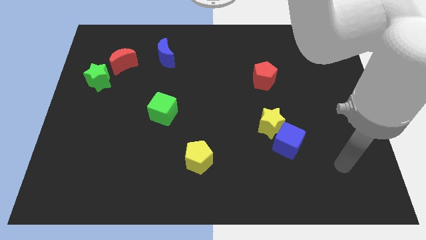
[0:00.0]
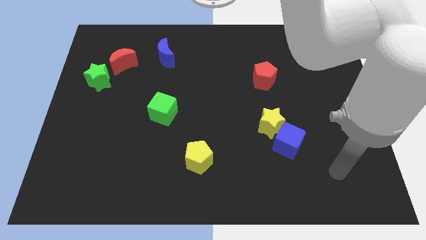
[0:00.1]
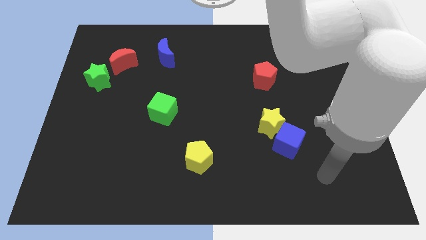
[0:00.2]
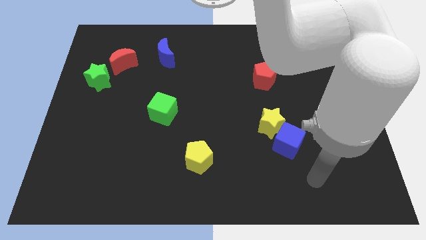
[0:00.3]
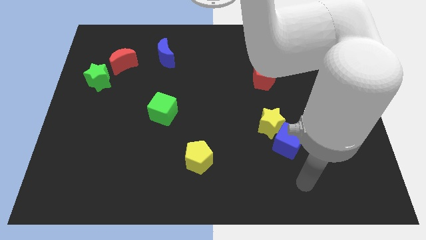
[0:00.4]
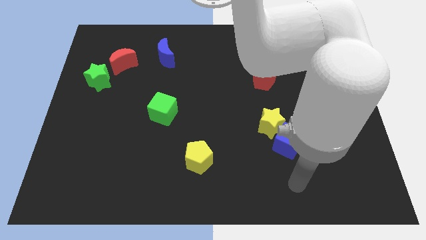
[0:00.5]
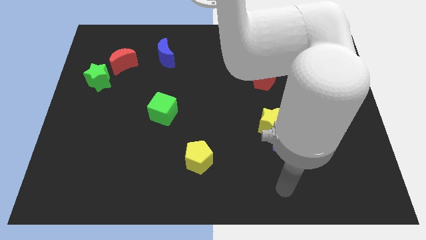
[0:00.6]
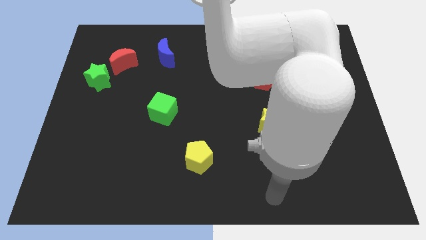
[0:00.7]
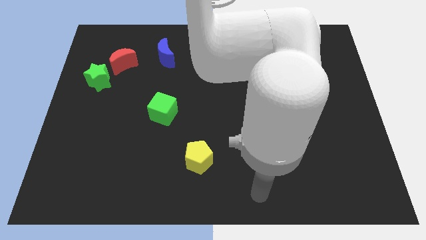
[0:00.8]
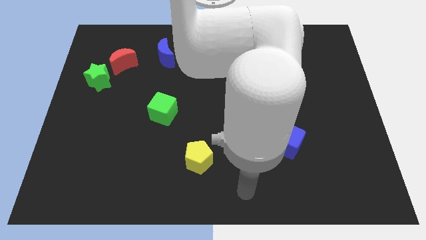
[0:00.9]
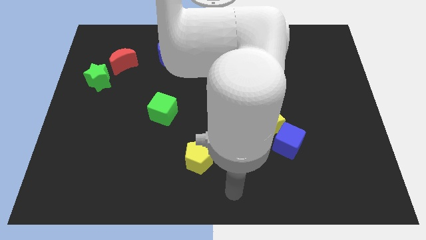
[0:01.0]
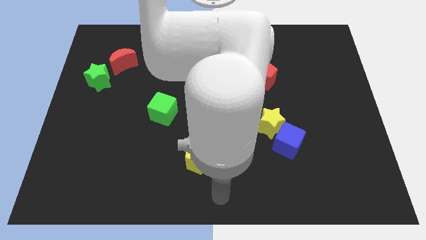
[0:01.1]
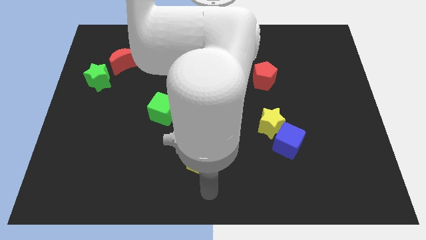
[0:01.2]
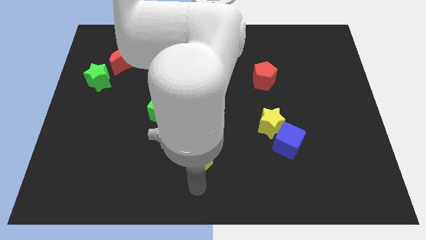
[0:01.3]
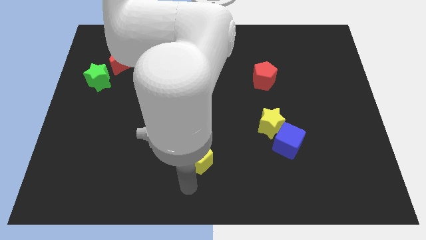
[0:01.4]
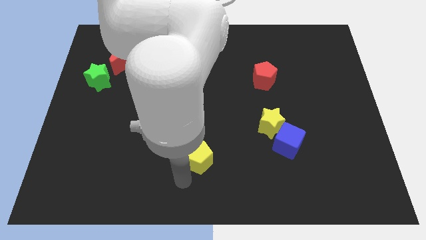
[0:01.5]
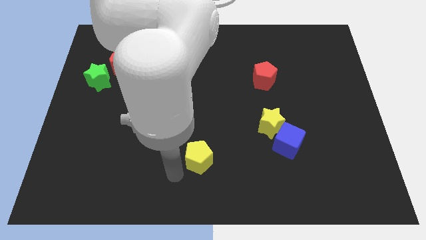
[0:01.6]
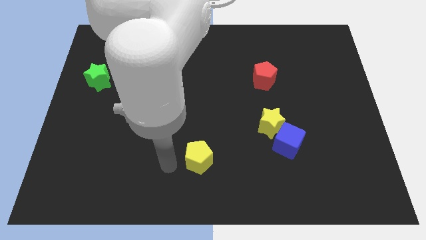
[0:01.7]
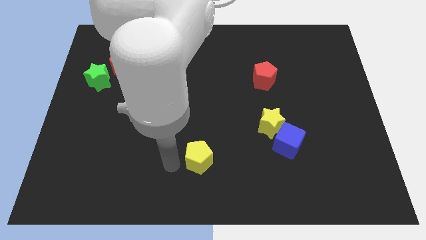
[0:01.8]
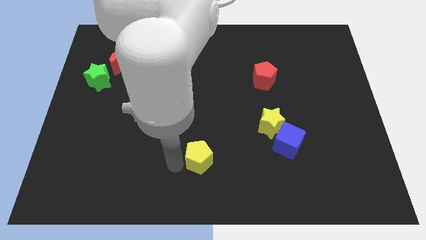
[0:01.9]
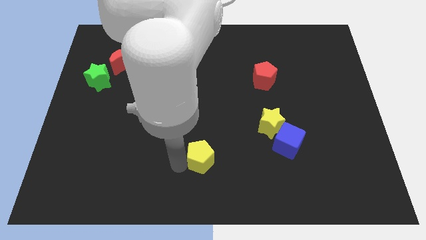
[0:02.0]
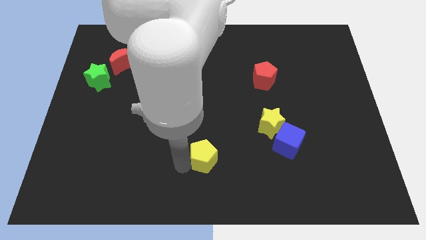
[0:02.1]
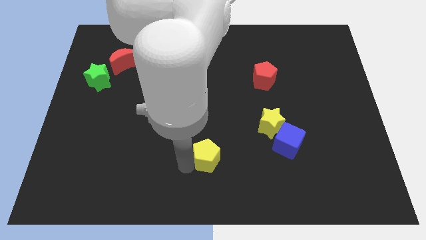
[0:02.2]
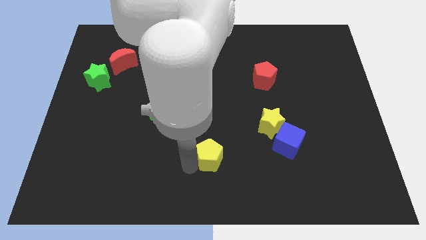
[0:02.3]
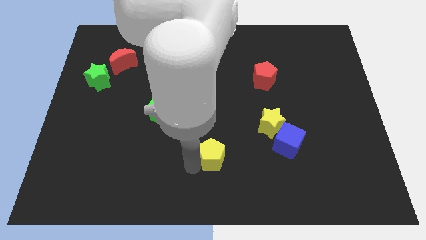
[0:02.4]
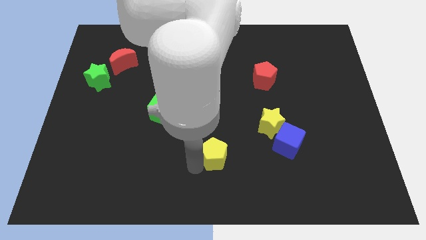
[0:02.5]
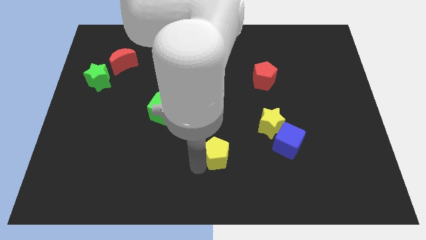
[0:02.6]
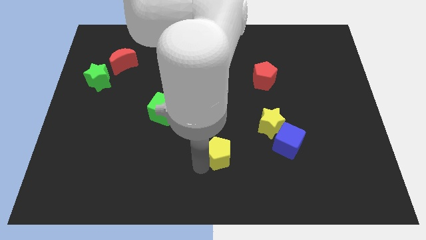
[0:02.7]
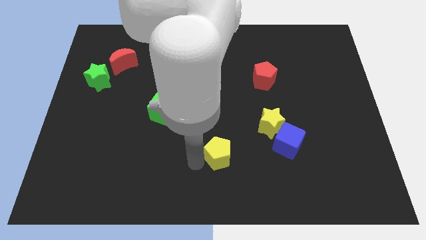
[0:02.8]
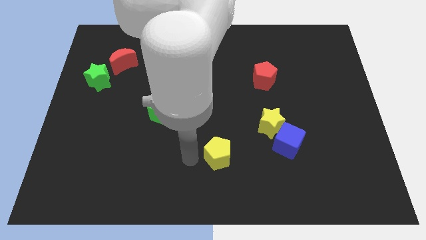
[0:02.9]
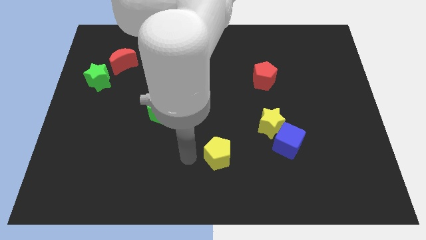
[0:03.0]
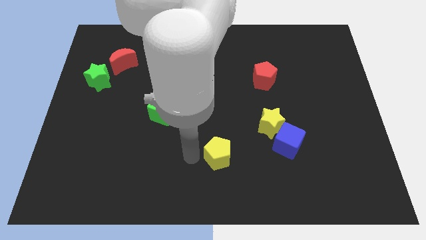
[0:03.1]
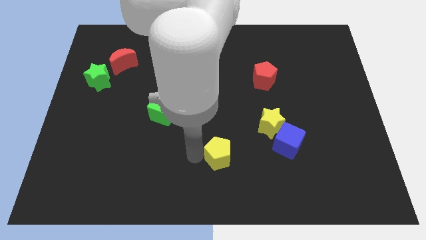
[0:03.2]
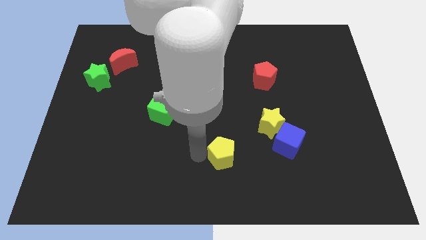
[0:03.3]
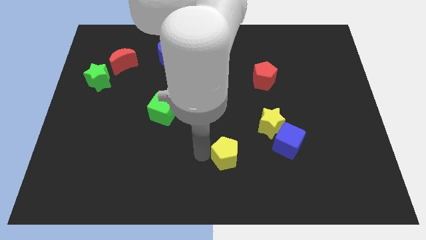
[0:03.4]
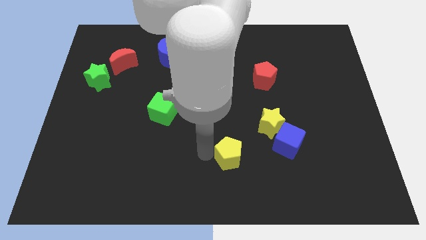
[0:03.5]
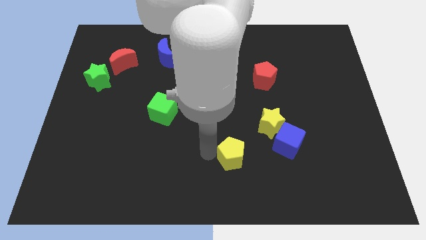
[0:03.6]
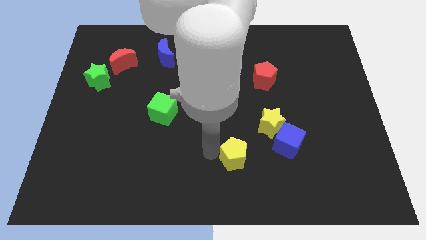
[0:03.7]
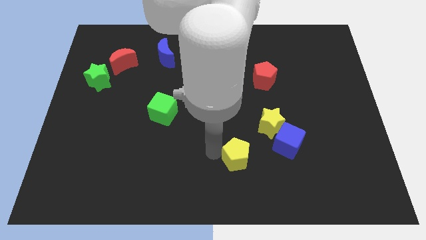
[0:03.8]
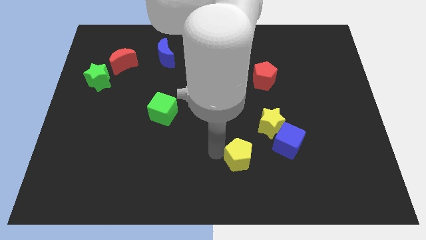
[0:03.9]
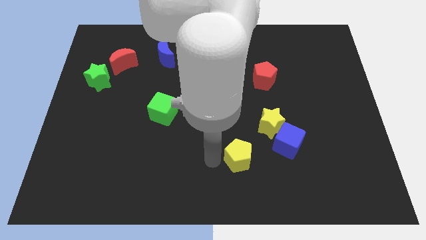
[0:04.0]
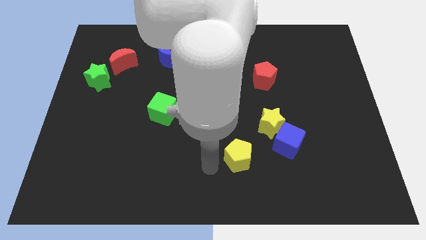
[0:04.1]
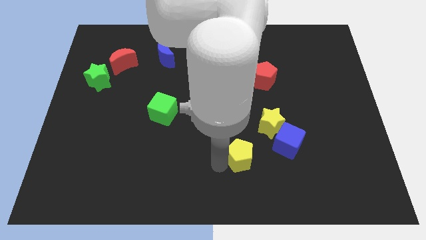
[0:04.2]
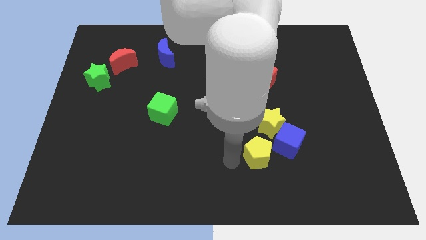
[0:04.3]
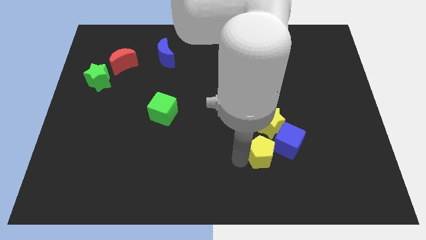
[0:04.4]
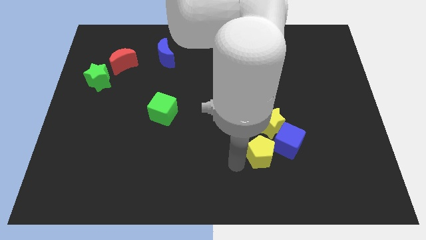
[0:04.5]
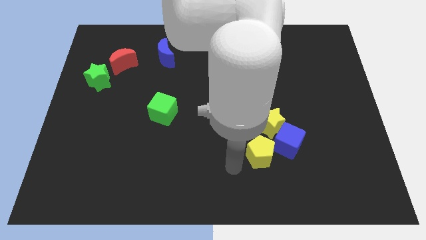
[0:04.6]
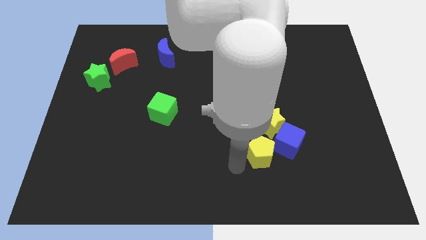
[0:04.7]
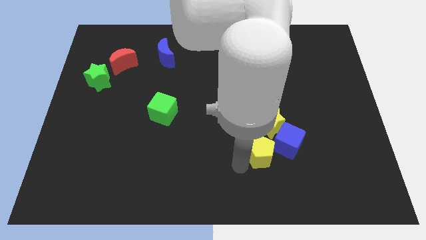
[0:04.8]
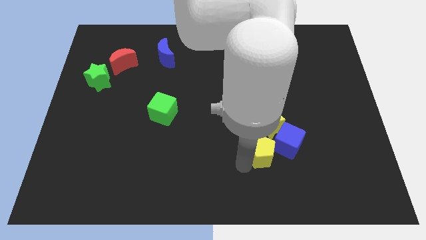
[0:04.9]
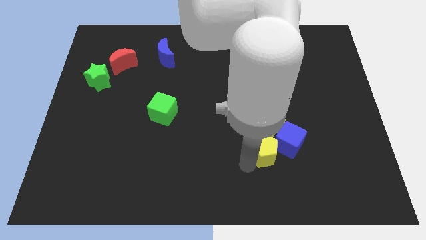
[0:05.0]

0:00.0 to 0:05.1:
move the yellow pentagon to the blue cube

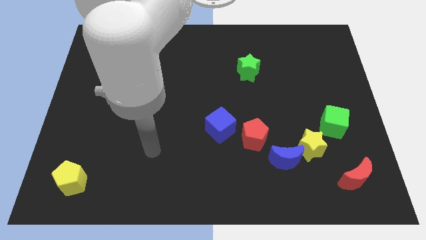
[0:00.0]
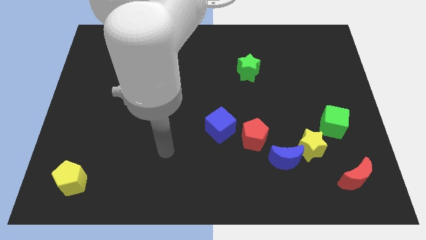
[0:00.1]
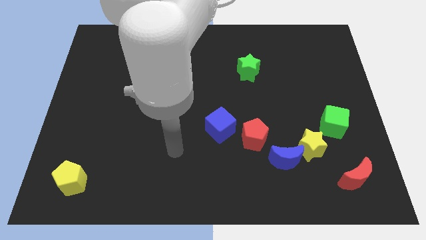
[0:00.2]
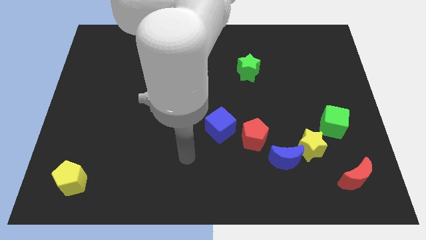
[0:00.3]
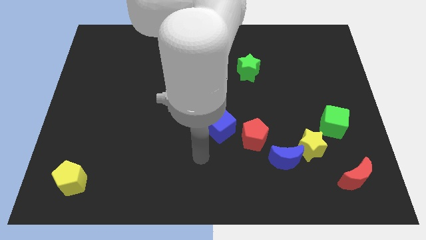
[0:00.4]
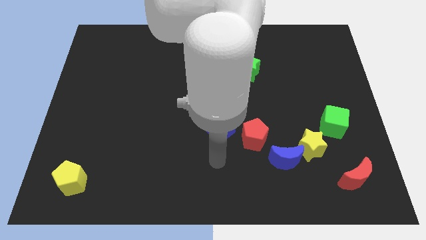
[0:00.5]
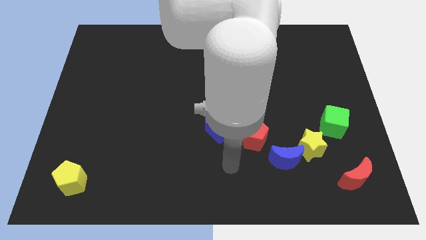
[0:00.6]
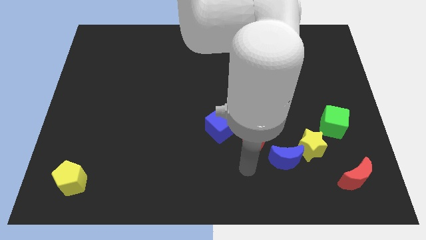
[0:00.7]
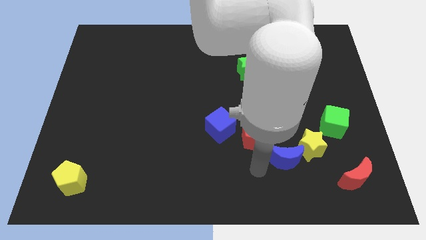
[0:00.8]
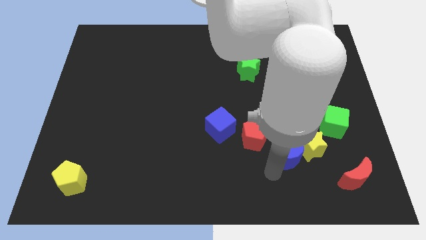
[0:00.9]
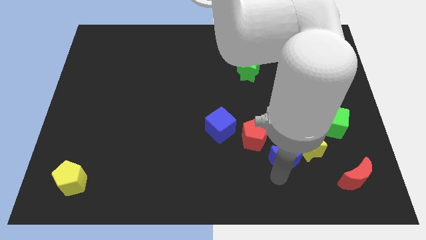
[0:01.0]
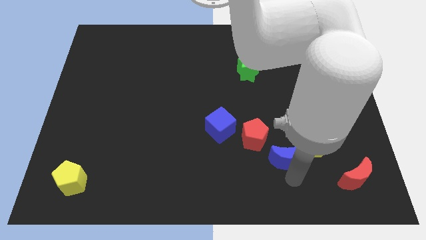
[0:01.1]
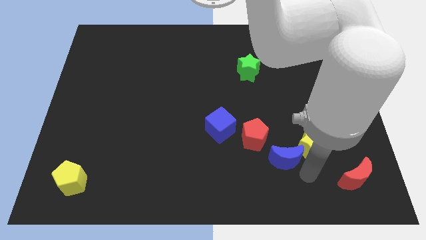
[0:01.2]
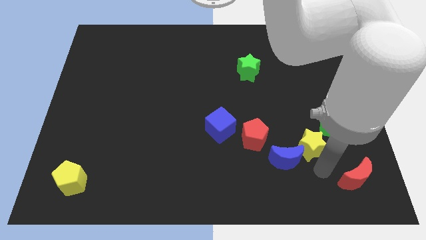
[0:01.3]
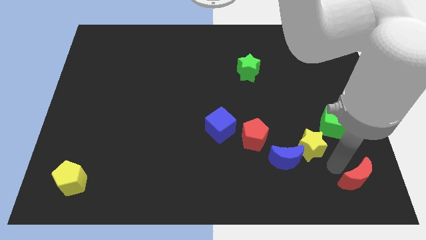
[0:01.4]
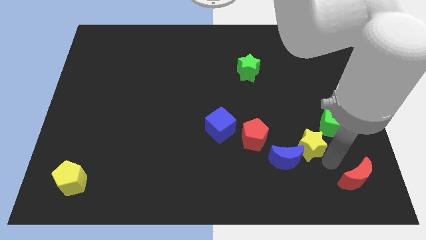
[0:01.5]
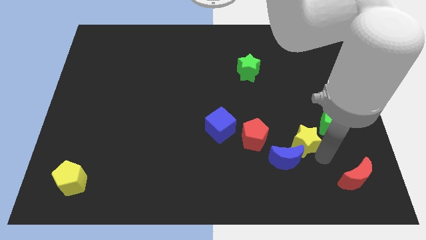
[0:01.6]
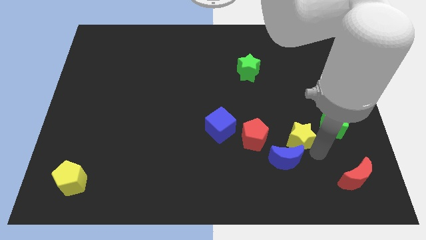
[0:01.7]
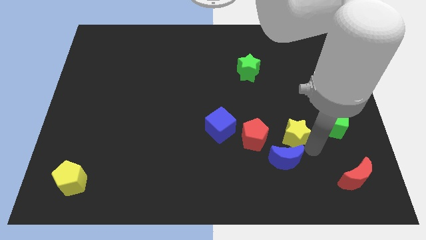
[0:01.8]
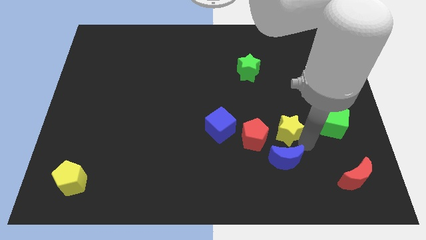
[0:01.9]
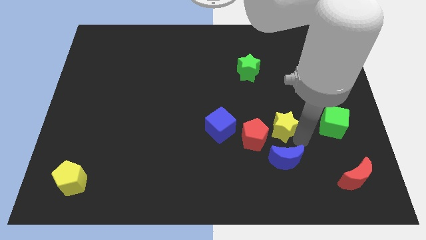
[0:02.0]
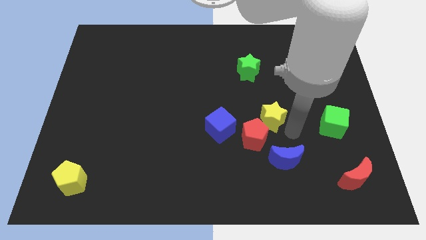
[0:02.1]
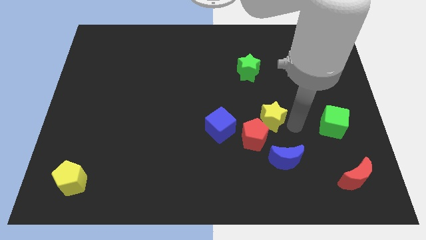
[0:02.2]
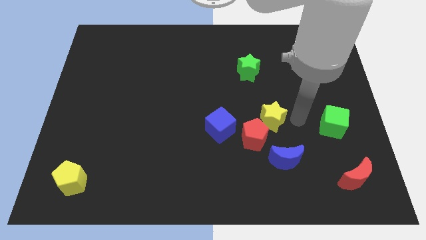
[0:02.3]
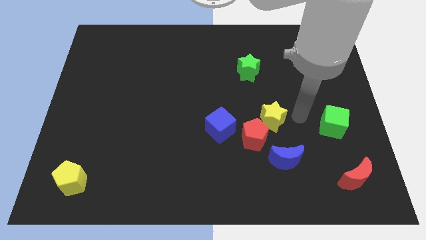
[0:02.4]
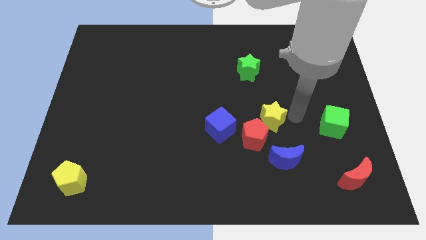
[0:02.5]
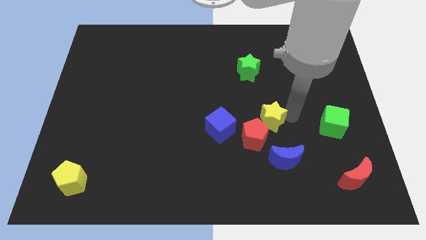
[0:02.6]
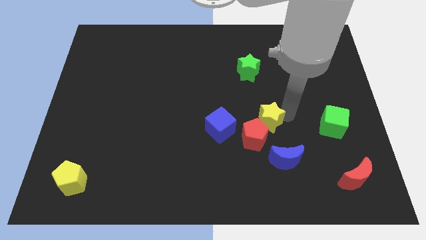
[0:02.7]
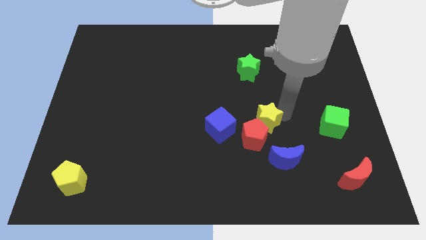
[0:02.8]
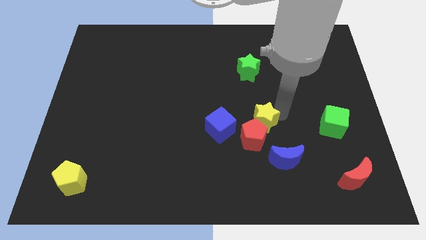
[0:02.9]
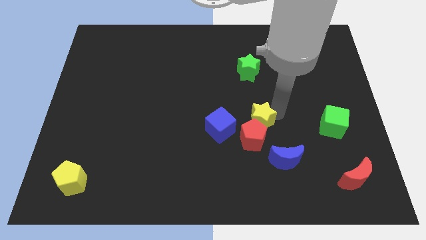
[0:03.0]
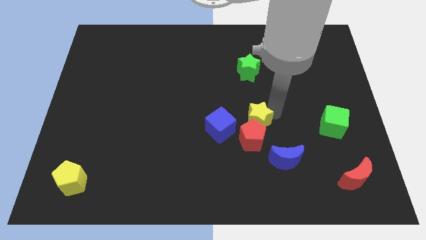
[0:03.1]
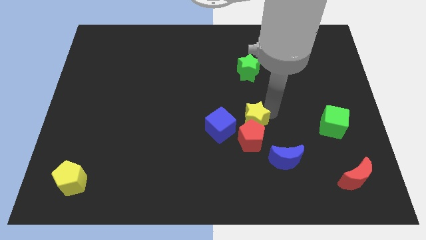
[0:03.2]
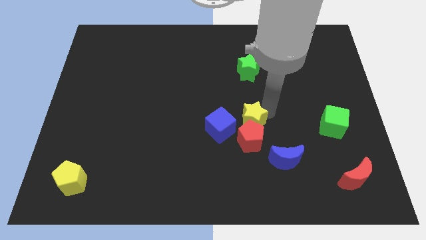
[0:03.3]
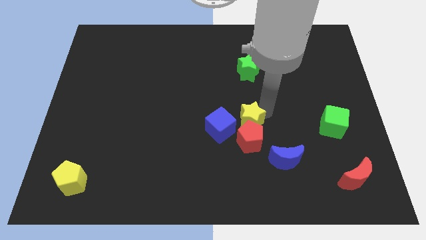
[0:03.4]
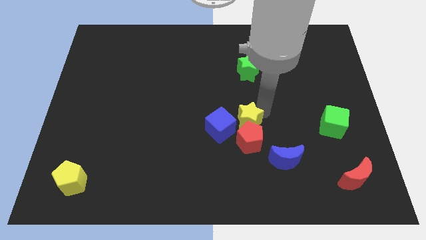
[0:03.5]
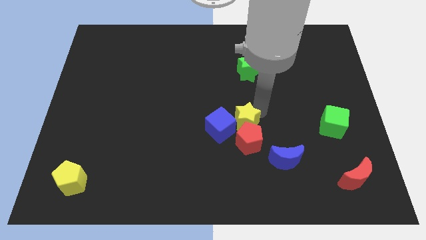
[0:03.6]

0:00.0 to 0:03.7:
slide the yellow star next to the blue cube
